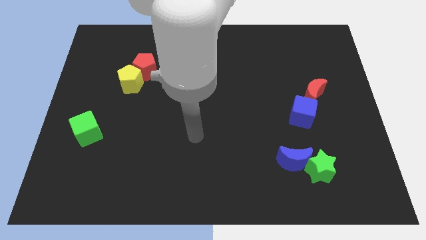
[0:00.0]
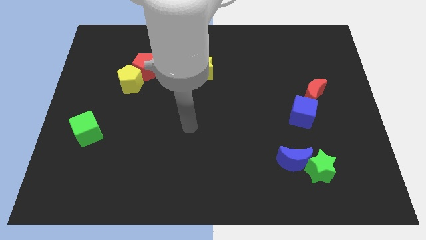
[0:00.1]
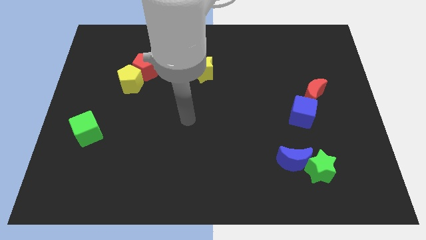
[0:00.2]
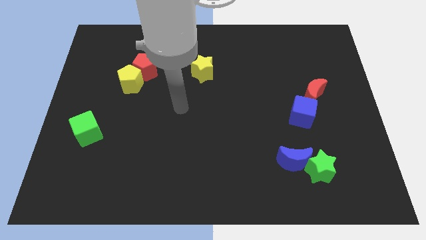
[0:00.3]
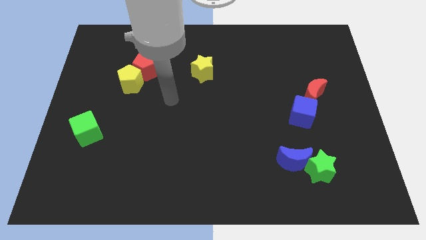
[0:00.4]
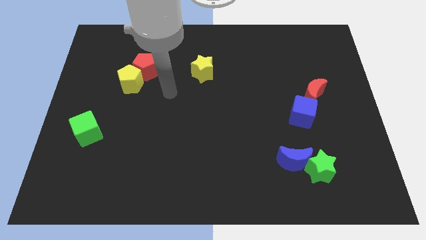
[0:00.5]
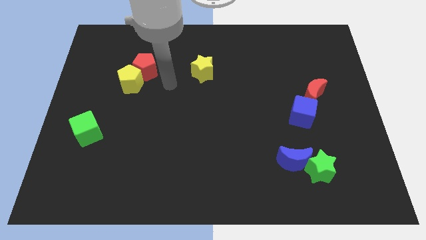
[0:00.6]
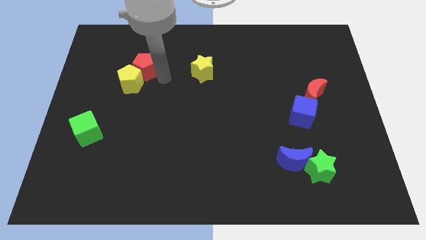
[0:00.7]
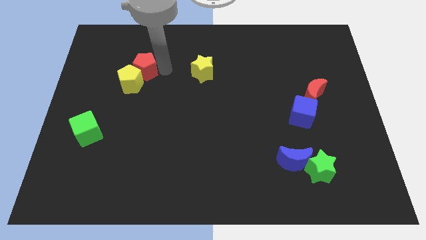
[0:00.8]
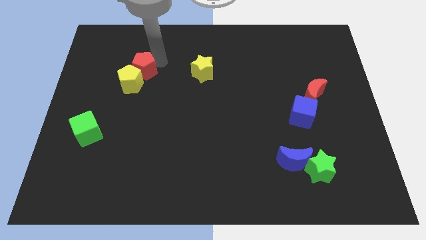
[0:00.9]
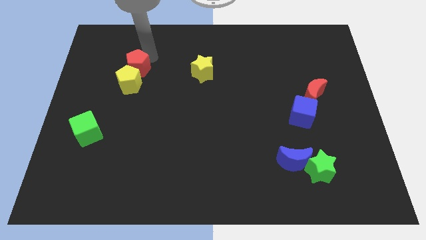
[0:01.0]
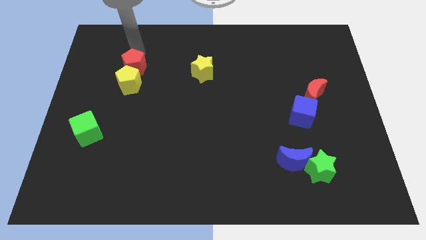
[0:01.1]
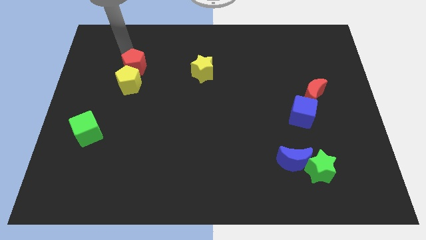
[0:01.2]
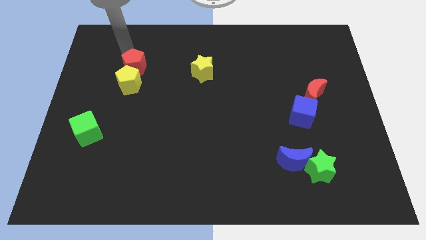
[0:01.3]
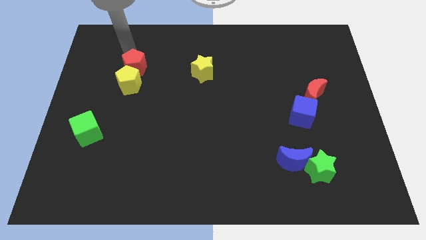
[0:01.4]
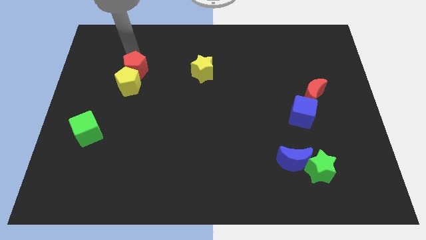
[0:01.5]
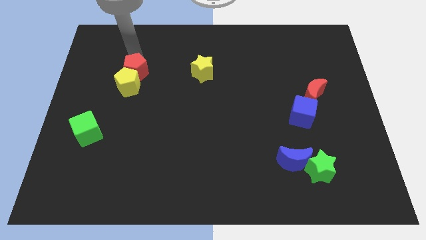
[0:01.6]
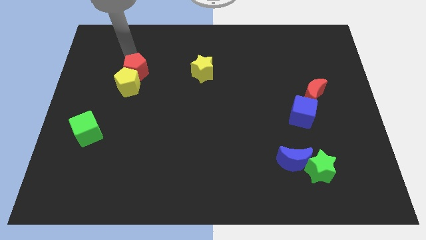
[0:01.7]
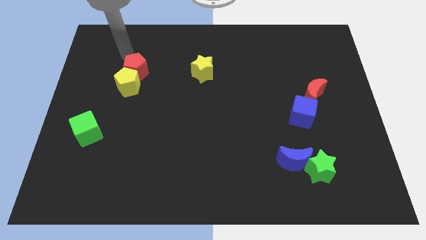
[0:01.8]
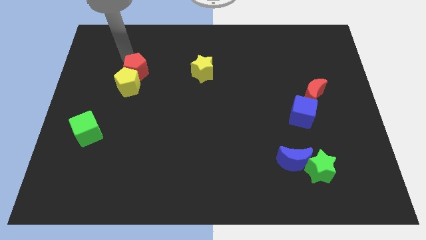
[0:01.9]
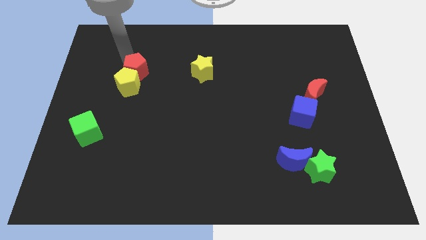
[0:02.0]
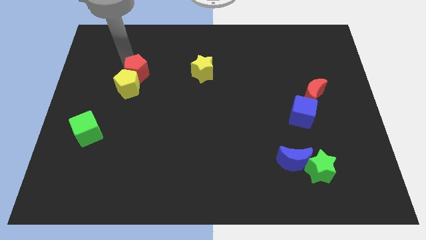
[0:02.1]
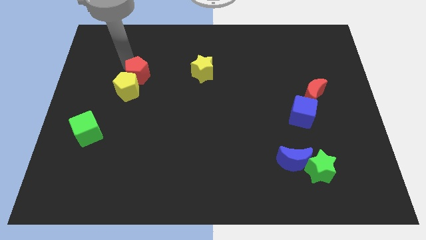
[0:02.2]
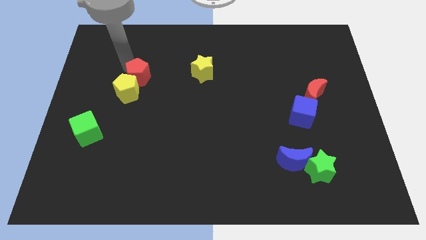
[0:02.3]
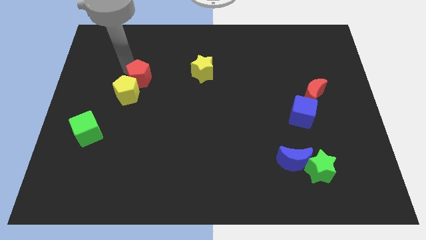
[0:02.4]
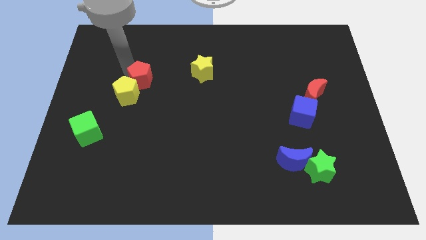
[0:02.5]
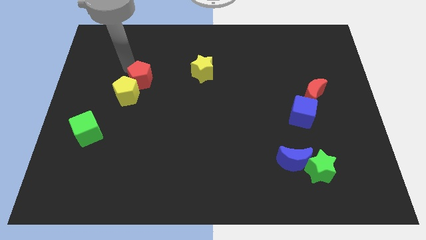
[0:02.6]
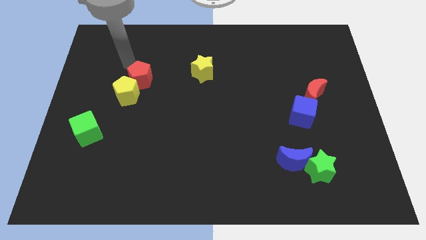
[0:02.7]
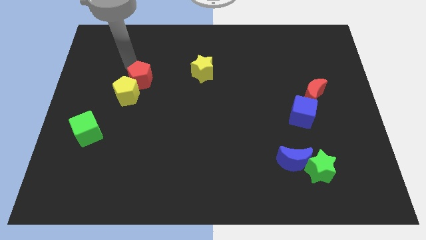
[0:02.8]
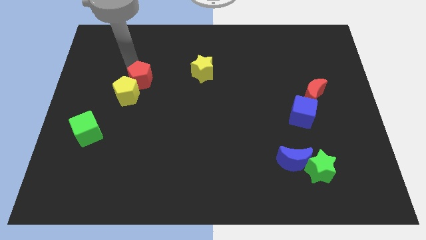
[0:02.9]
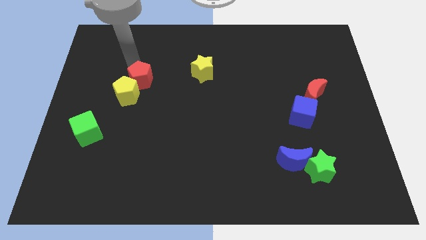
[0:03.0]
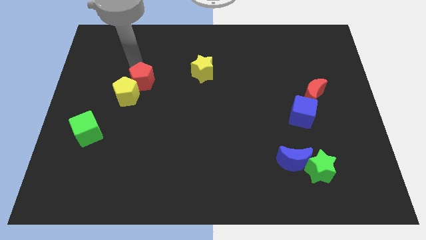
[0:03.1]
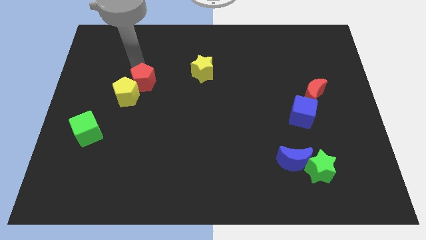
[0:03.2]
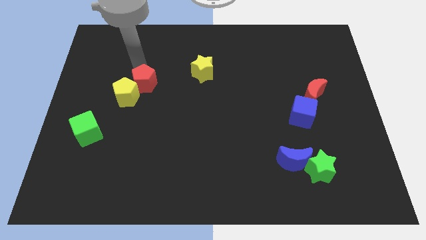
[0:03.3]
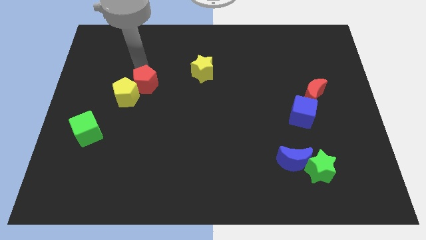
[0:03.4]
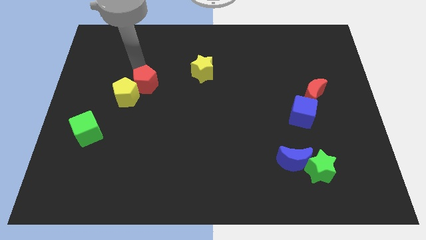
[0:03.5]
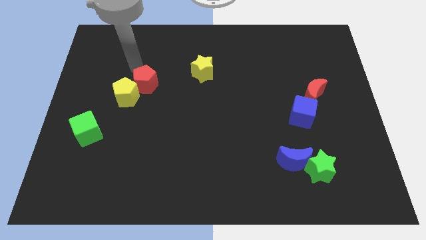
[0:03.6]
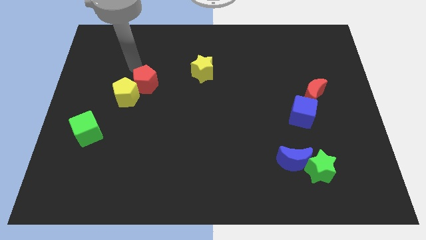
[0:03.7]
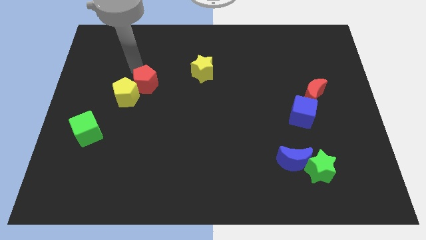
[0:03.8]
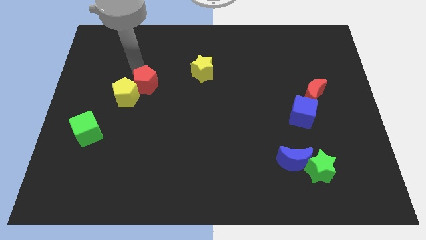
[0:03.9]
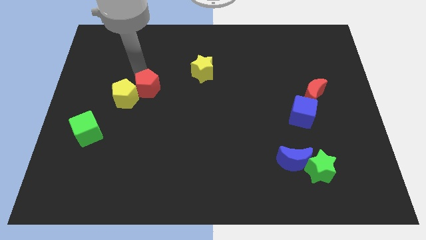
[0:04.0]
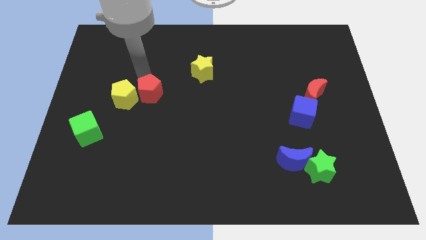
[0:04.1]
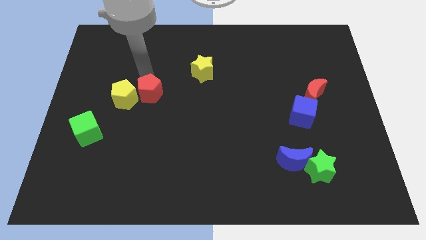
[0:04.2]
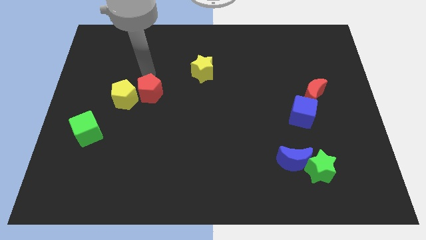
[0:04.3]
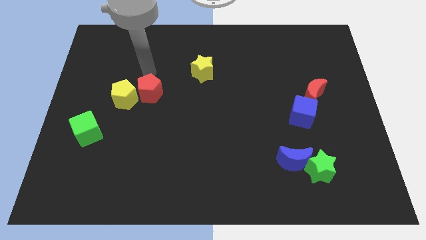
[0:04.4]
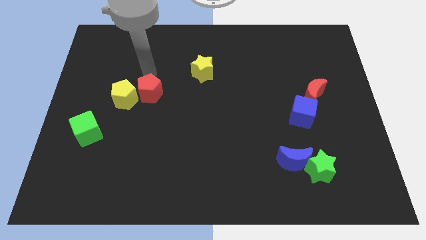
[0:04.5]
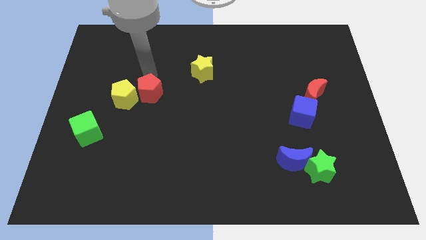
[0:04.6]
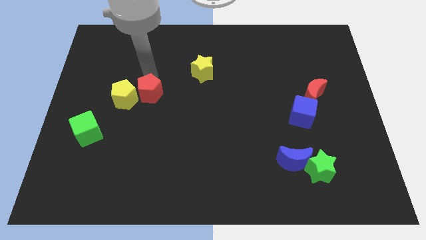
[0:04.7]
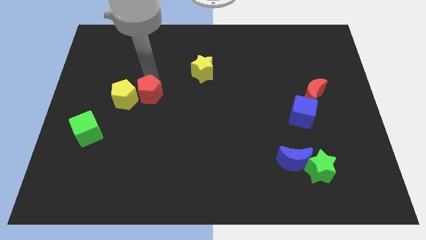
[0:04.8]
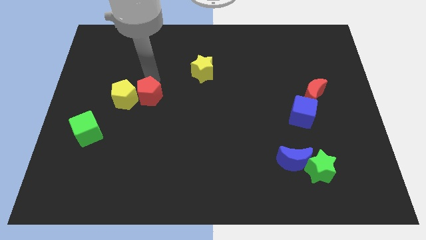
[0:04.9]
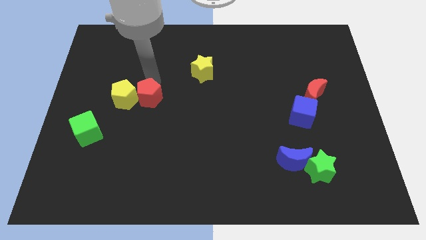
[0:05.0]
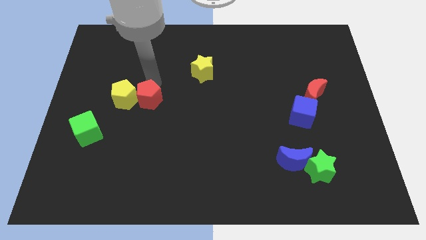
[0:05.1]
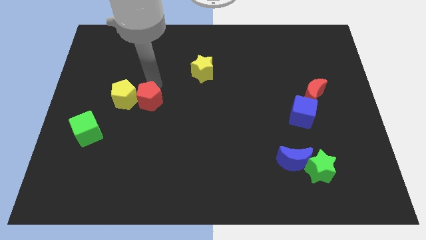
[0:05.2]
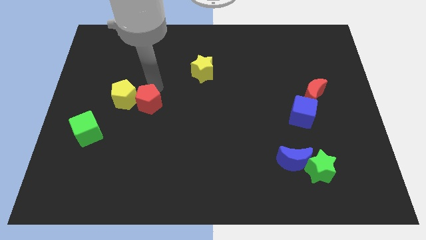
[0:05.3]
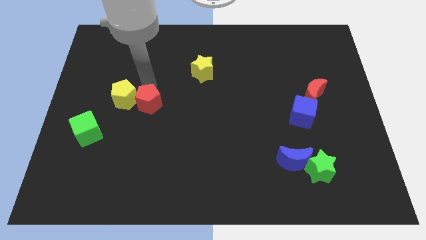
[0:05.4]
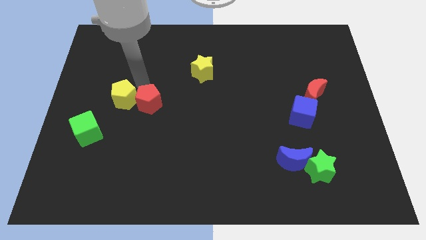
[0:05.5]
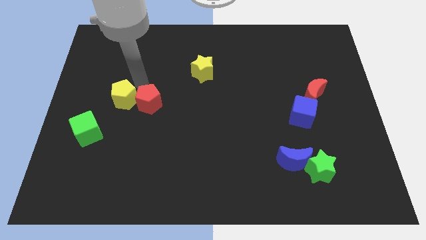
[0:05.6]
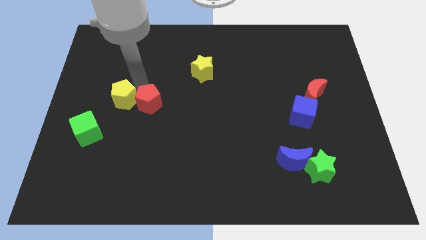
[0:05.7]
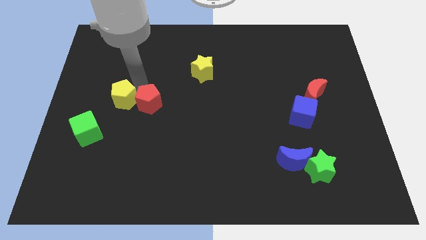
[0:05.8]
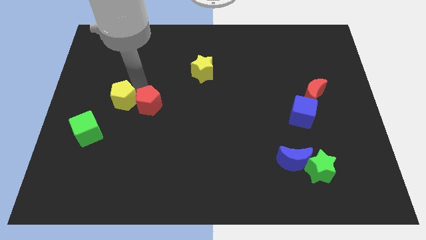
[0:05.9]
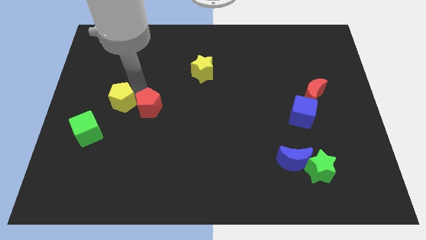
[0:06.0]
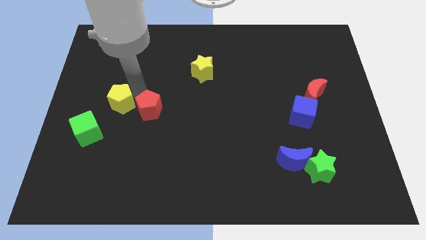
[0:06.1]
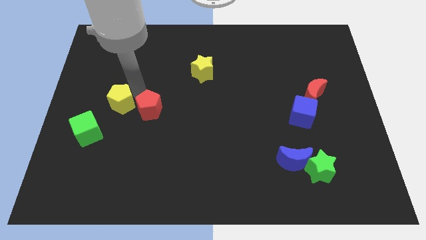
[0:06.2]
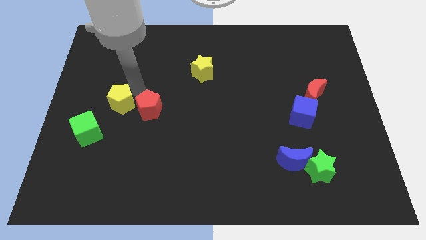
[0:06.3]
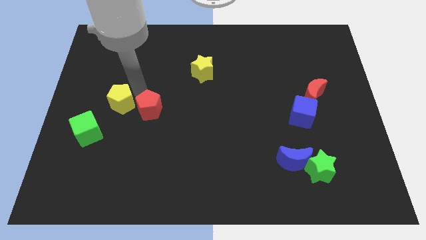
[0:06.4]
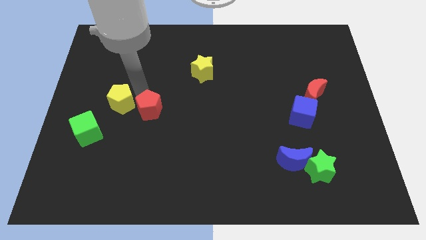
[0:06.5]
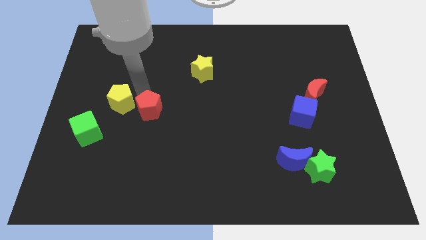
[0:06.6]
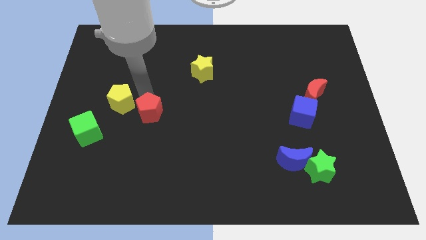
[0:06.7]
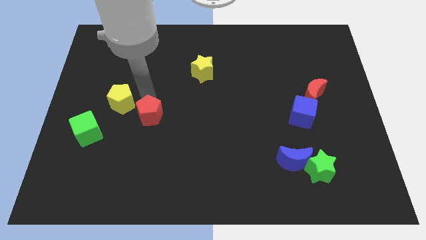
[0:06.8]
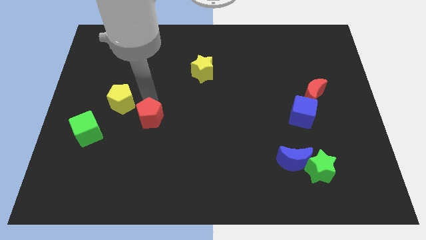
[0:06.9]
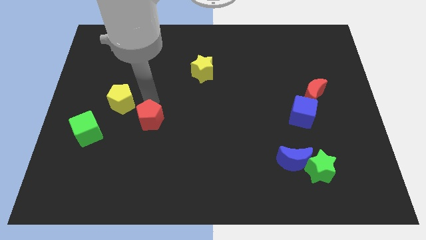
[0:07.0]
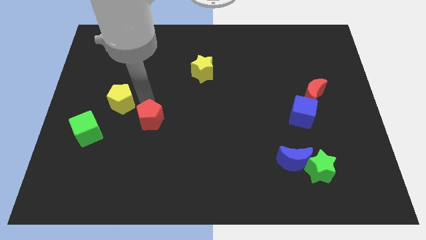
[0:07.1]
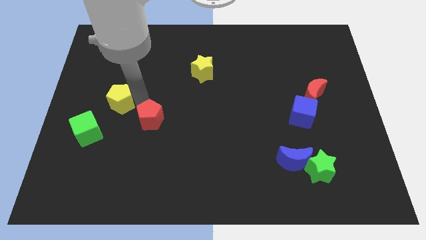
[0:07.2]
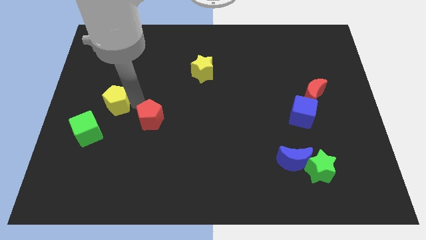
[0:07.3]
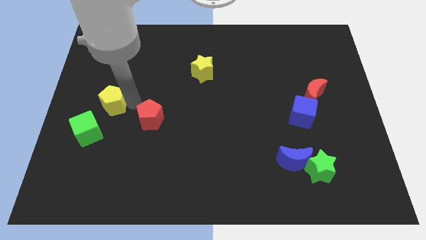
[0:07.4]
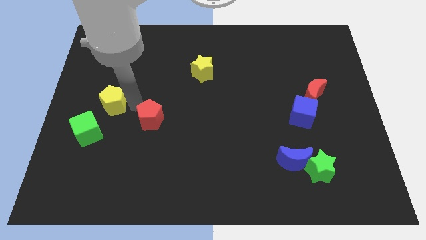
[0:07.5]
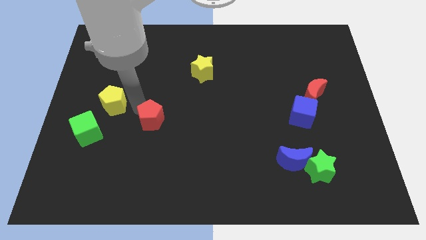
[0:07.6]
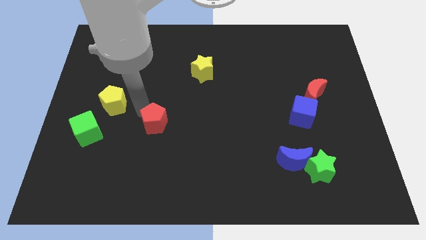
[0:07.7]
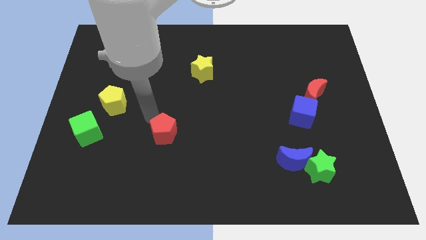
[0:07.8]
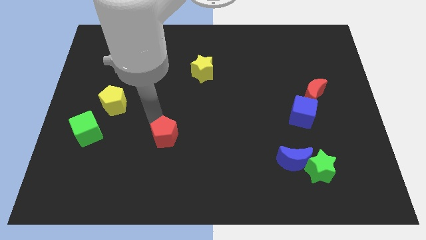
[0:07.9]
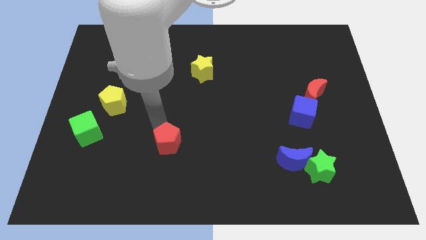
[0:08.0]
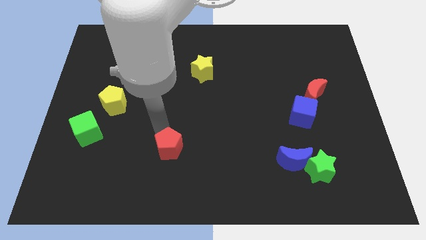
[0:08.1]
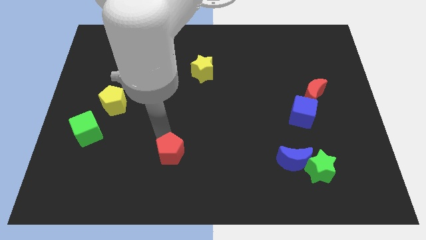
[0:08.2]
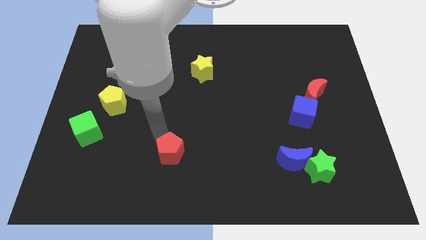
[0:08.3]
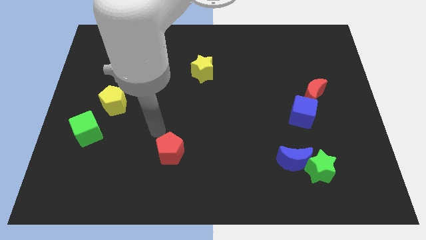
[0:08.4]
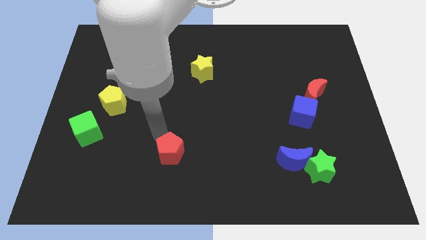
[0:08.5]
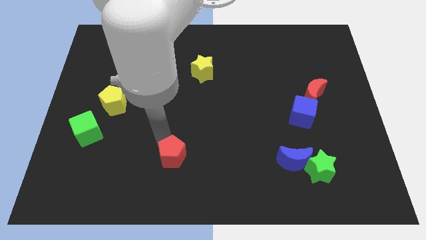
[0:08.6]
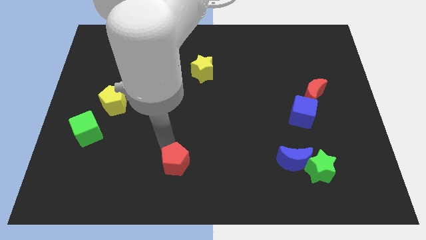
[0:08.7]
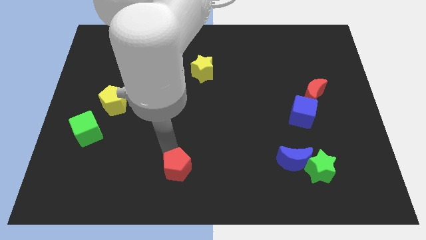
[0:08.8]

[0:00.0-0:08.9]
slide the red pentagon to the bottom side
